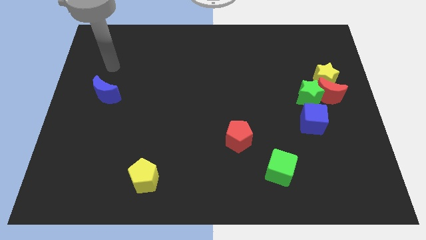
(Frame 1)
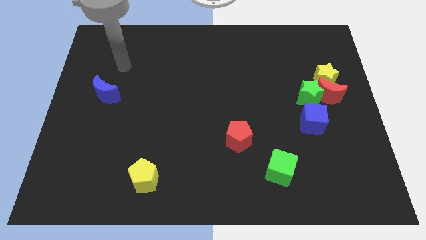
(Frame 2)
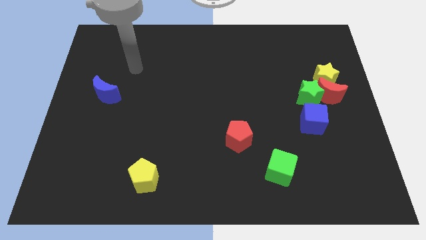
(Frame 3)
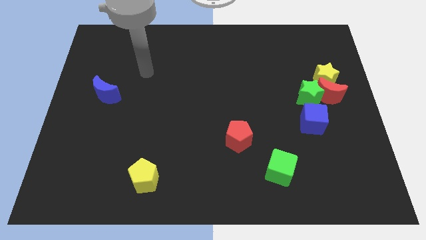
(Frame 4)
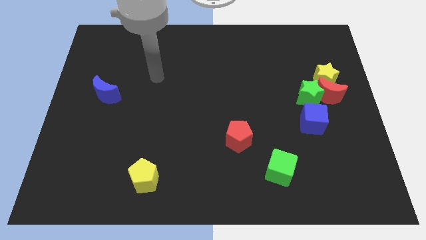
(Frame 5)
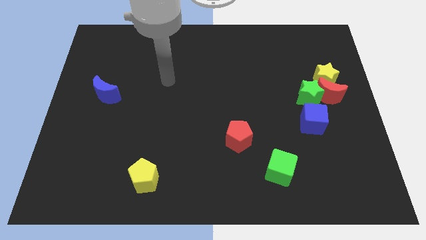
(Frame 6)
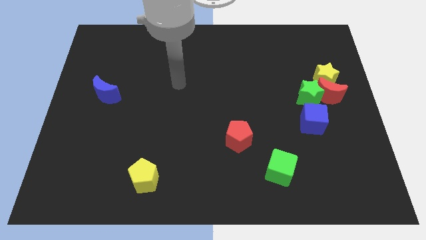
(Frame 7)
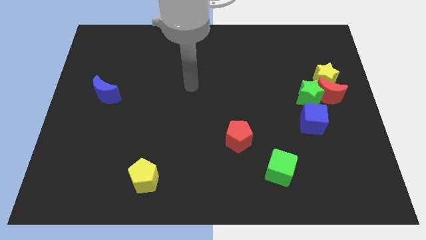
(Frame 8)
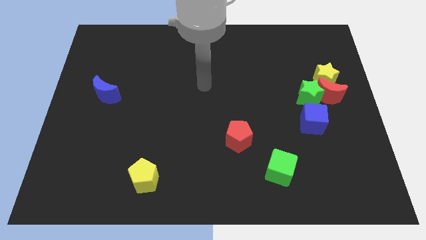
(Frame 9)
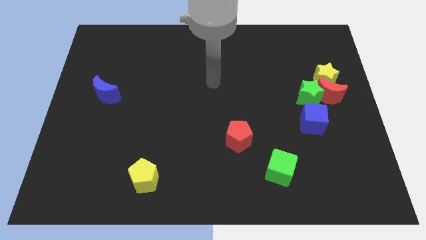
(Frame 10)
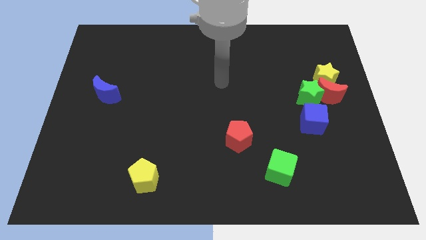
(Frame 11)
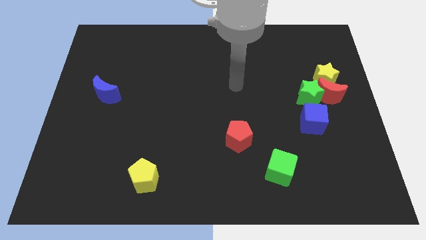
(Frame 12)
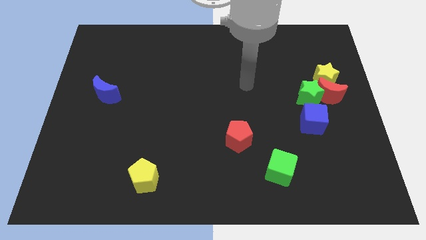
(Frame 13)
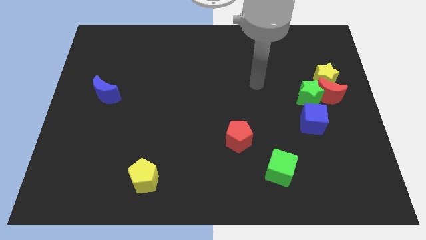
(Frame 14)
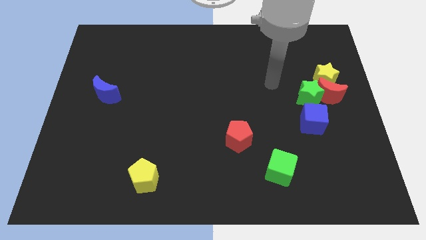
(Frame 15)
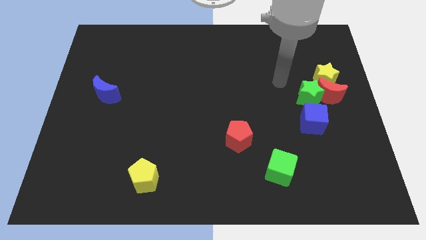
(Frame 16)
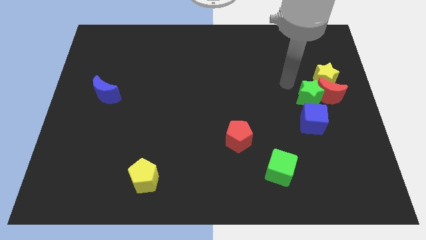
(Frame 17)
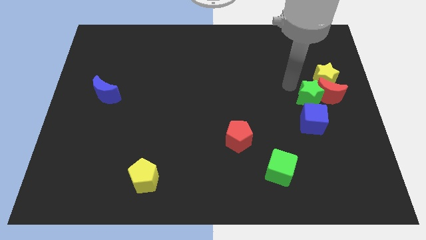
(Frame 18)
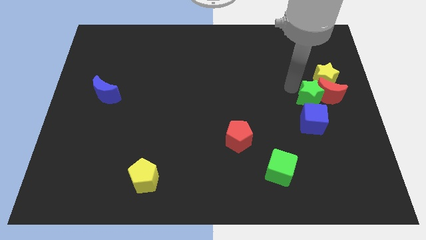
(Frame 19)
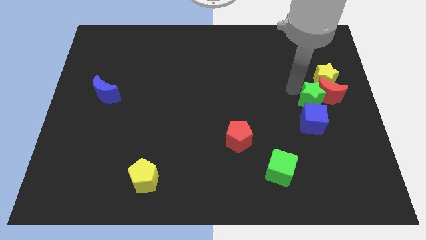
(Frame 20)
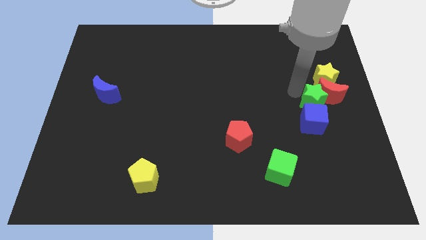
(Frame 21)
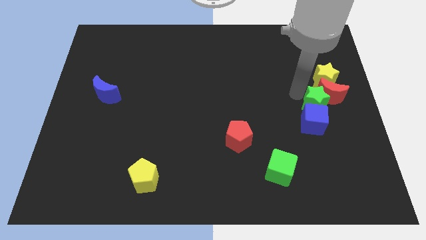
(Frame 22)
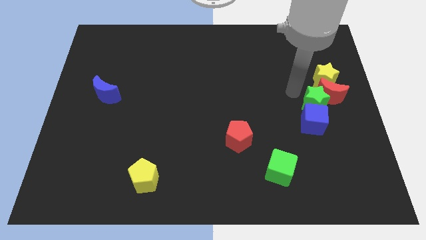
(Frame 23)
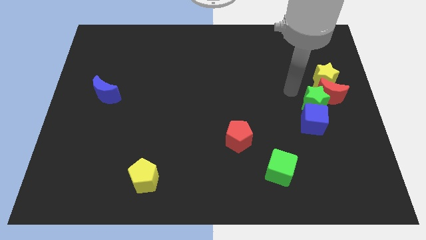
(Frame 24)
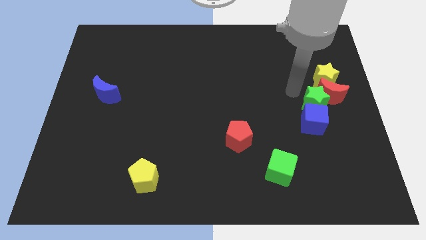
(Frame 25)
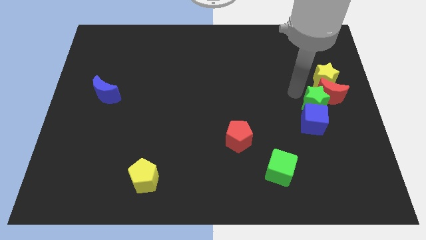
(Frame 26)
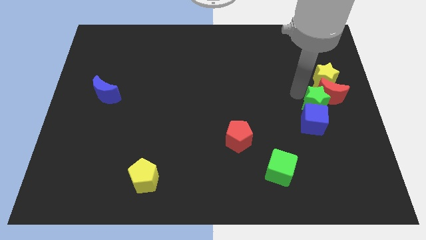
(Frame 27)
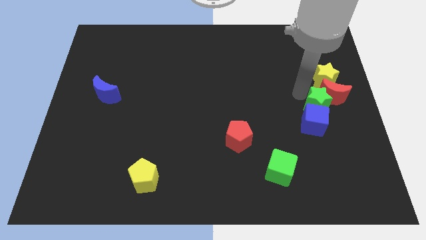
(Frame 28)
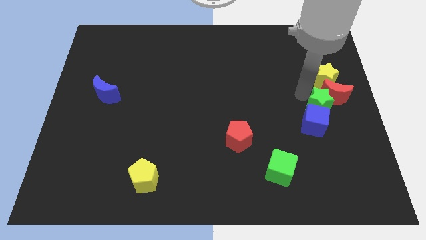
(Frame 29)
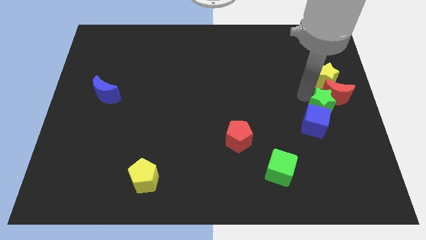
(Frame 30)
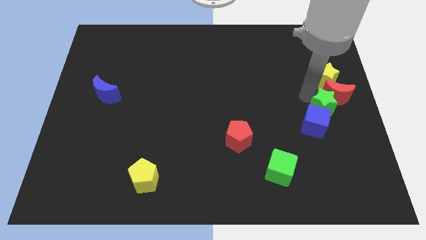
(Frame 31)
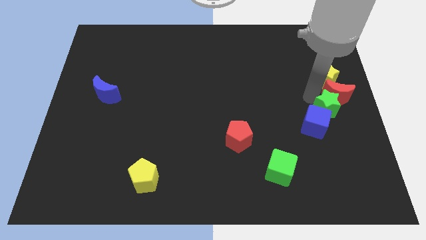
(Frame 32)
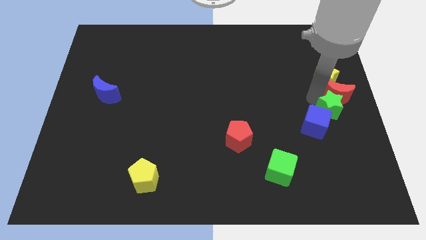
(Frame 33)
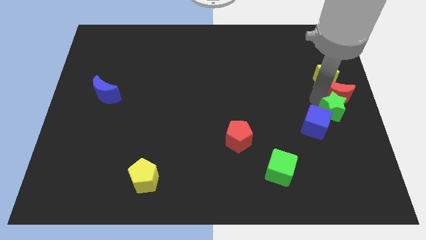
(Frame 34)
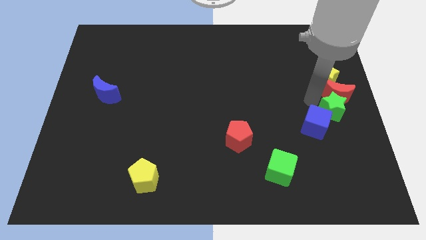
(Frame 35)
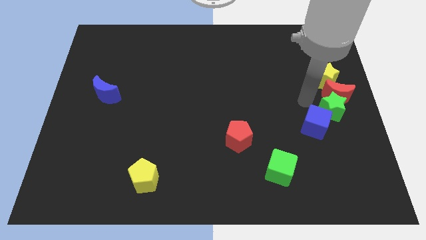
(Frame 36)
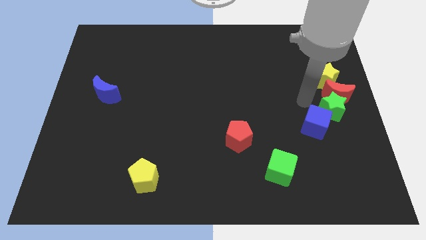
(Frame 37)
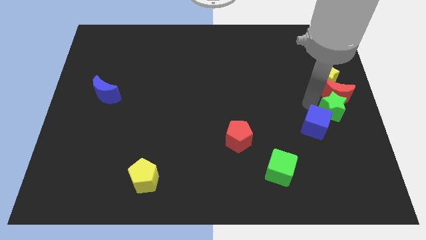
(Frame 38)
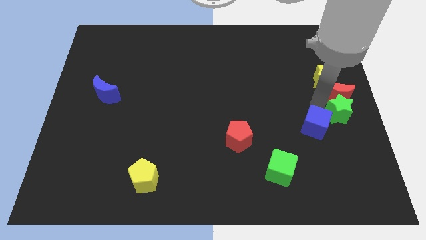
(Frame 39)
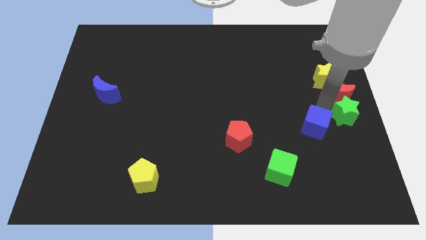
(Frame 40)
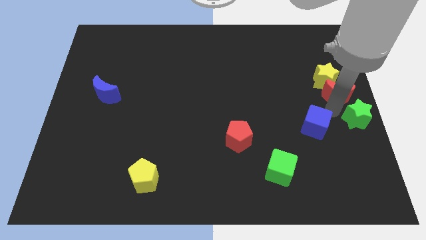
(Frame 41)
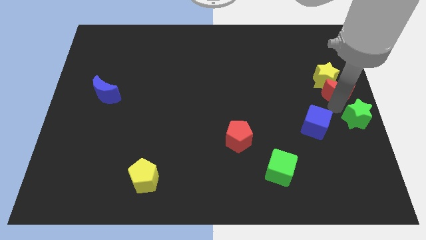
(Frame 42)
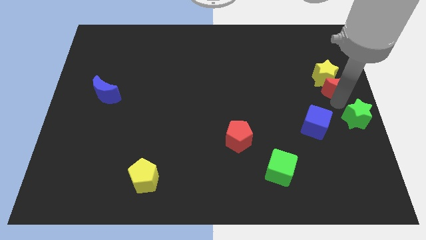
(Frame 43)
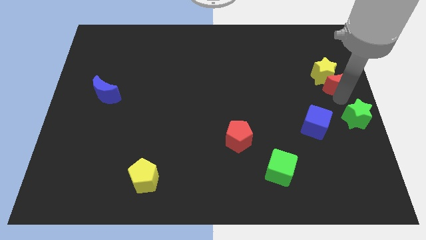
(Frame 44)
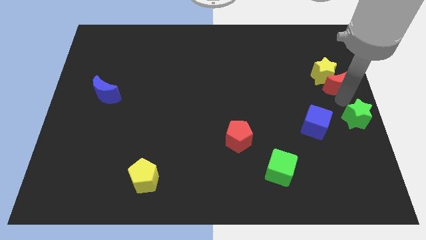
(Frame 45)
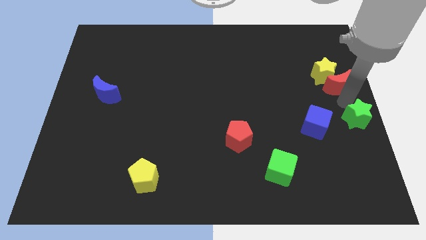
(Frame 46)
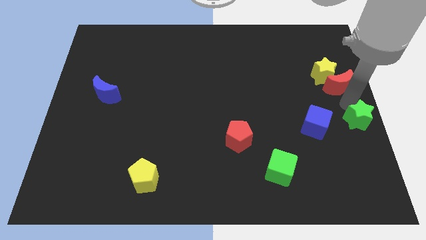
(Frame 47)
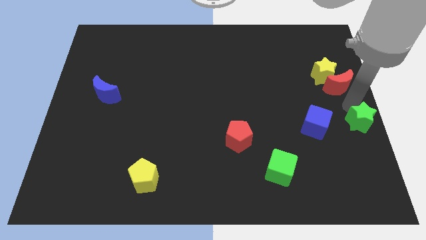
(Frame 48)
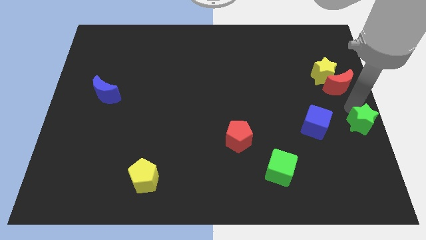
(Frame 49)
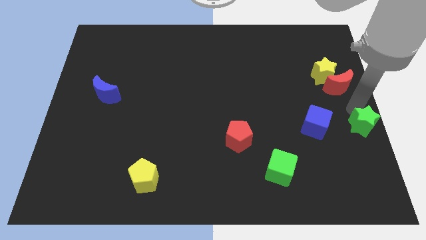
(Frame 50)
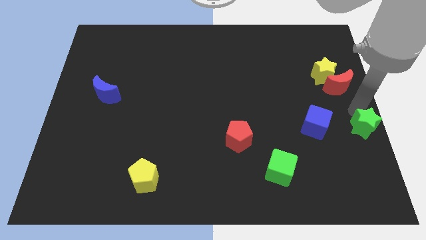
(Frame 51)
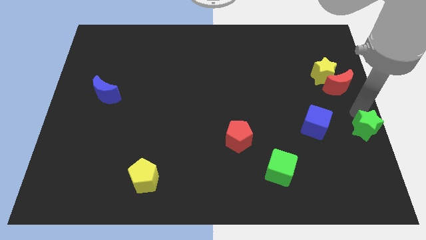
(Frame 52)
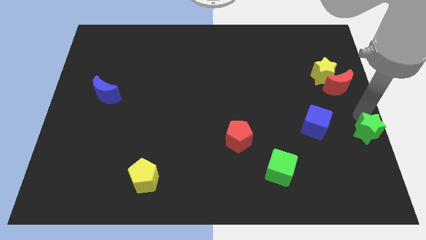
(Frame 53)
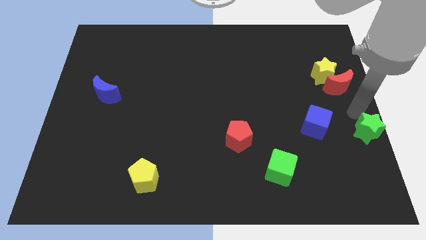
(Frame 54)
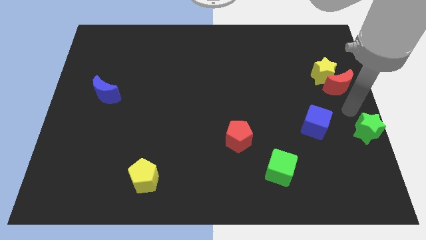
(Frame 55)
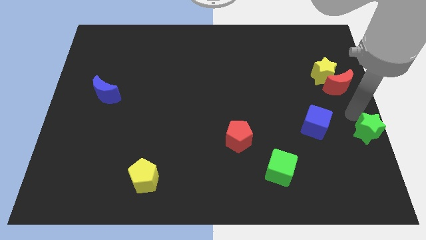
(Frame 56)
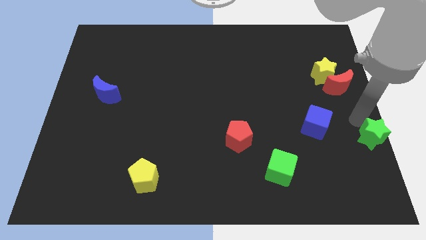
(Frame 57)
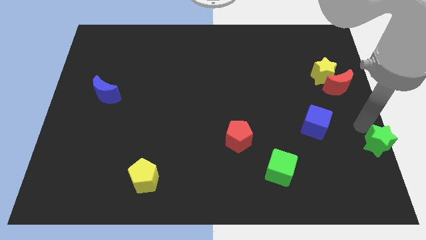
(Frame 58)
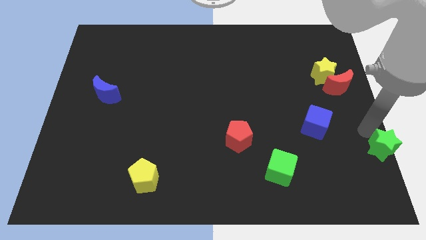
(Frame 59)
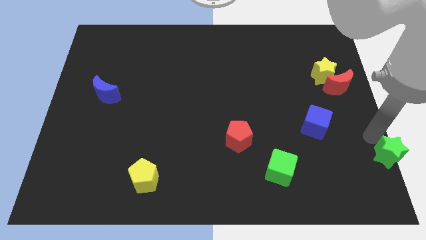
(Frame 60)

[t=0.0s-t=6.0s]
move the green star to the bottom right of the board

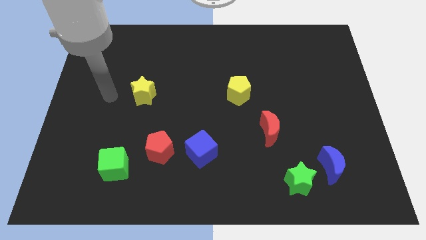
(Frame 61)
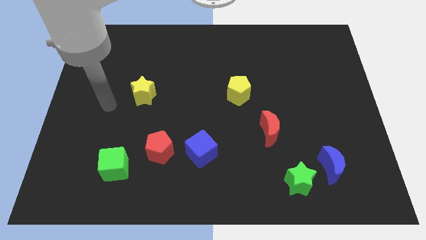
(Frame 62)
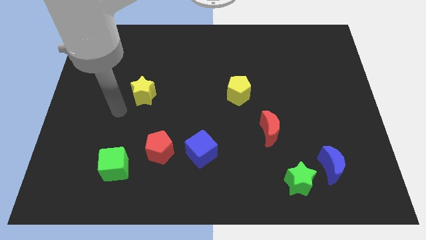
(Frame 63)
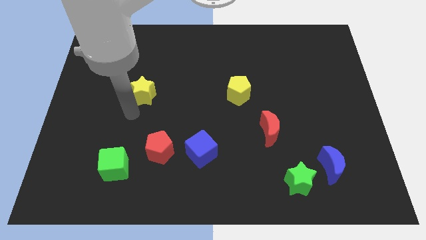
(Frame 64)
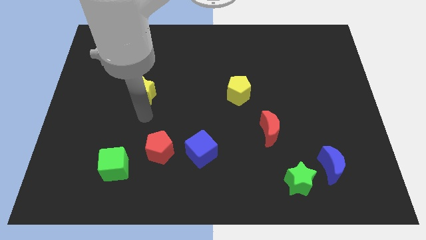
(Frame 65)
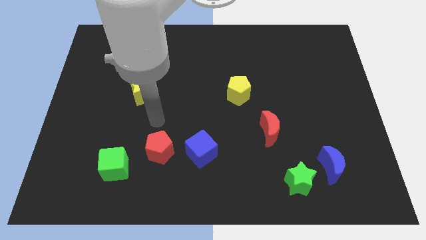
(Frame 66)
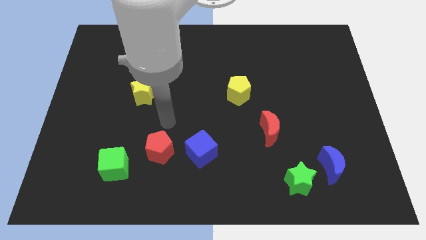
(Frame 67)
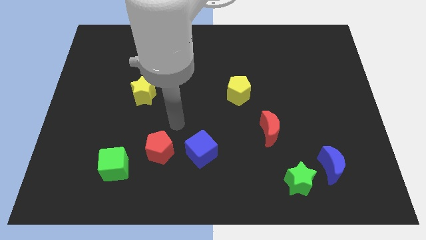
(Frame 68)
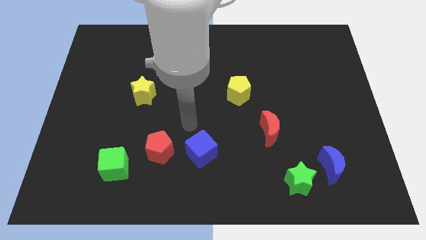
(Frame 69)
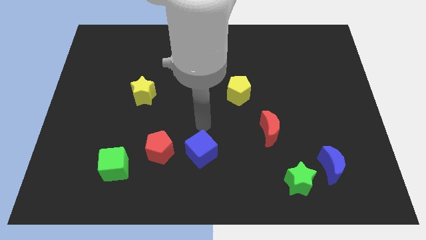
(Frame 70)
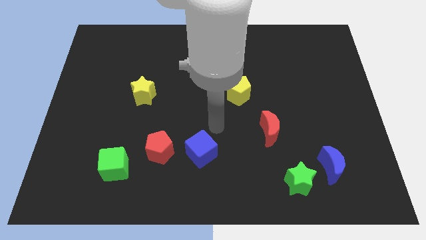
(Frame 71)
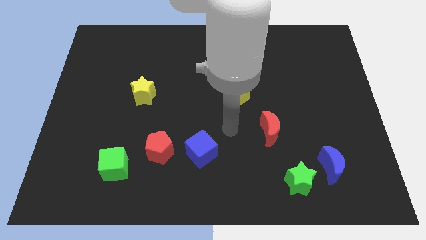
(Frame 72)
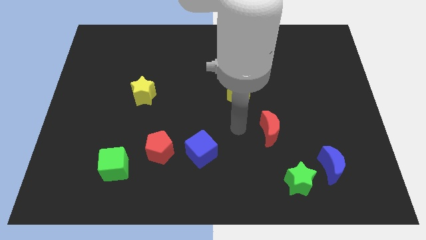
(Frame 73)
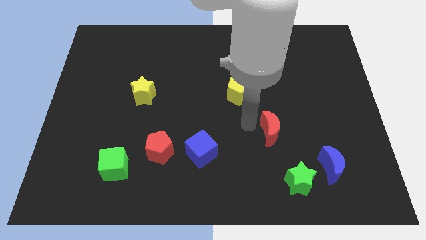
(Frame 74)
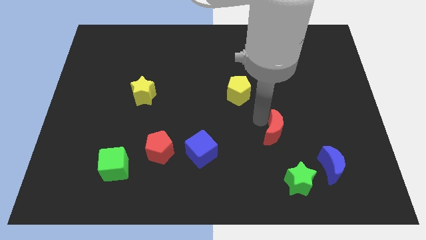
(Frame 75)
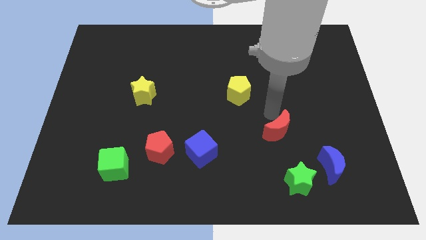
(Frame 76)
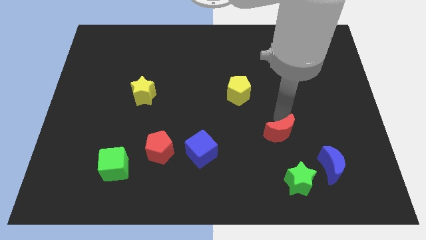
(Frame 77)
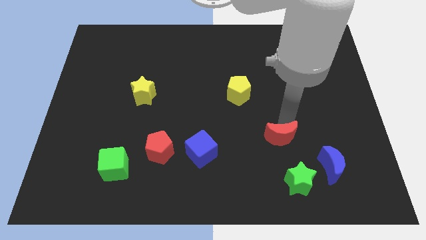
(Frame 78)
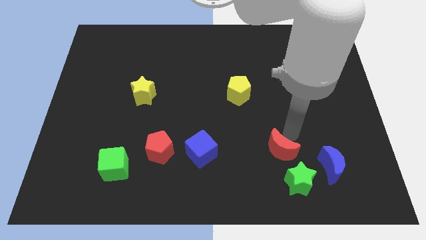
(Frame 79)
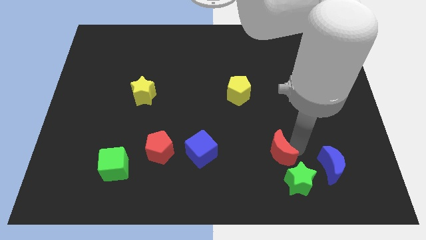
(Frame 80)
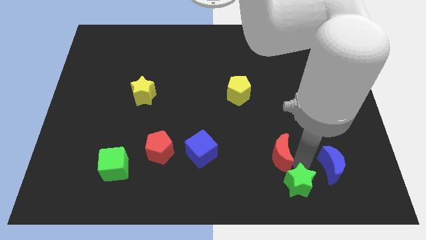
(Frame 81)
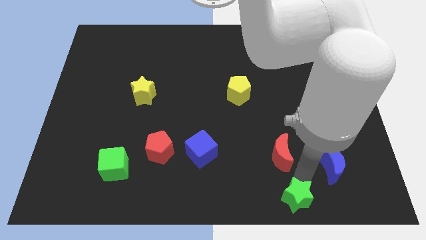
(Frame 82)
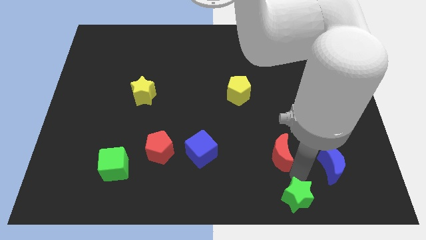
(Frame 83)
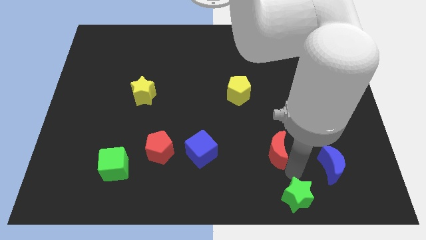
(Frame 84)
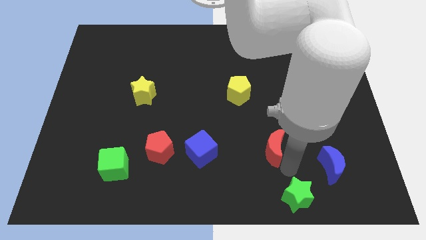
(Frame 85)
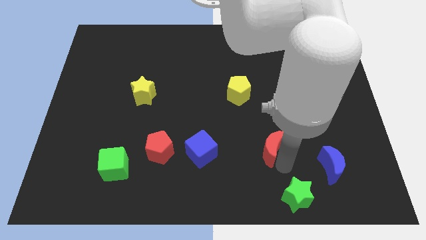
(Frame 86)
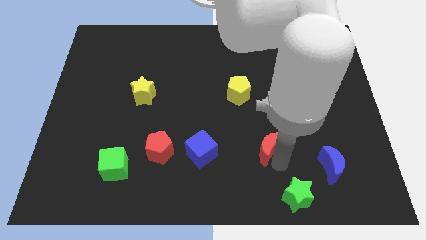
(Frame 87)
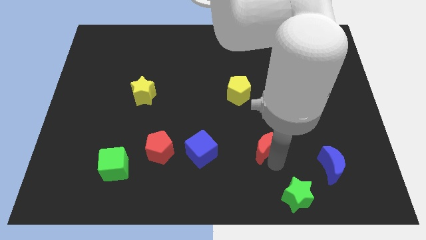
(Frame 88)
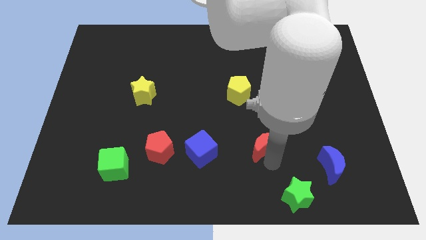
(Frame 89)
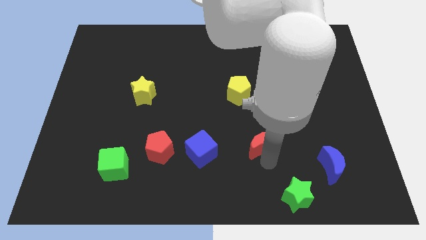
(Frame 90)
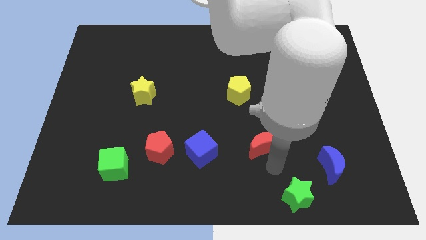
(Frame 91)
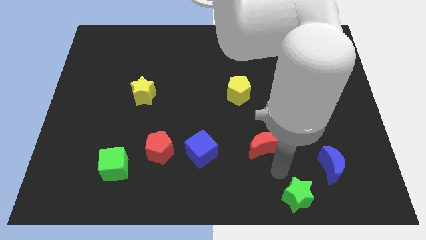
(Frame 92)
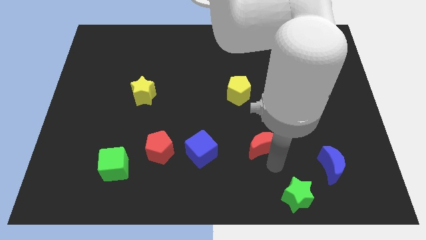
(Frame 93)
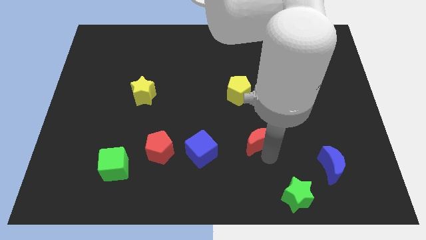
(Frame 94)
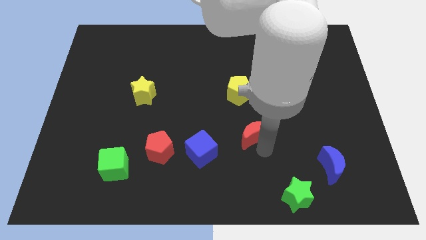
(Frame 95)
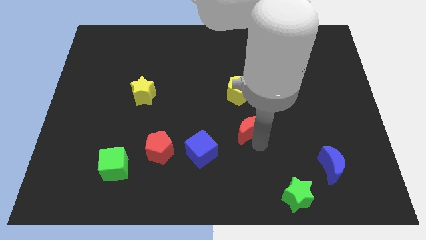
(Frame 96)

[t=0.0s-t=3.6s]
push the red moon to the center
